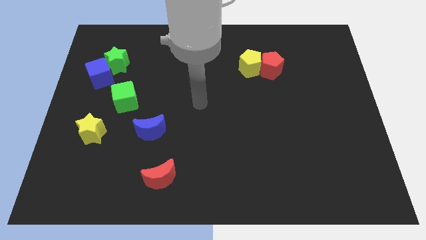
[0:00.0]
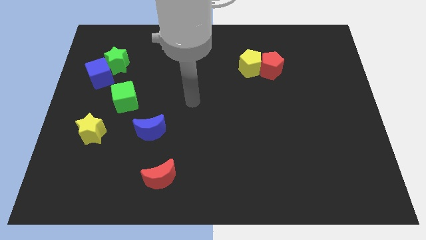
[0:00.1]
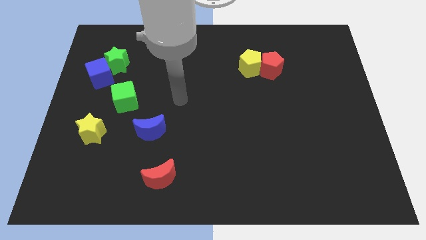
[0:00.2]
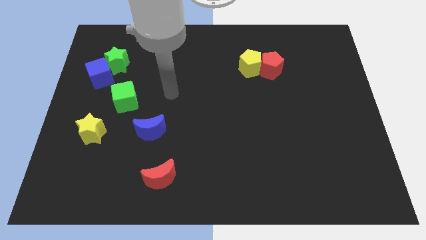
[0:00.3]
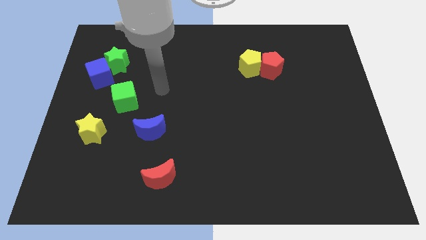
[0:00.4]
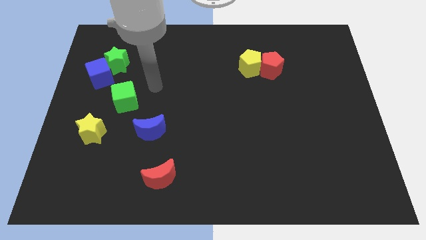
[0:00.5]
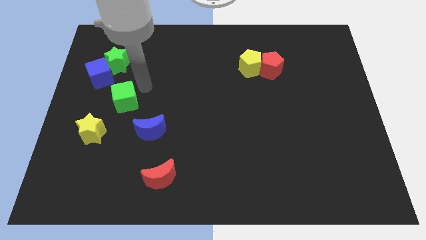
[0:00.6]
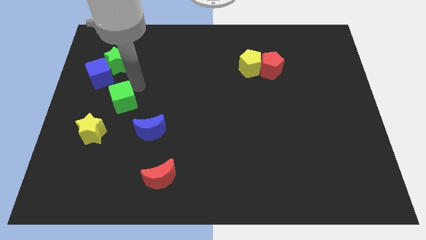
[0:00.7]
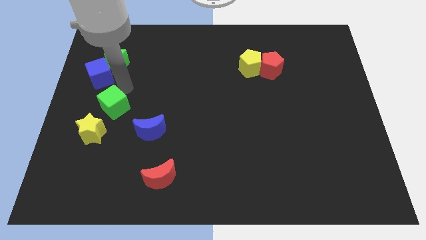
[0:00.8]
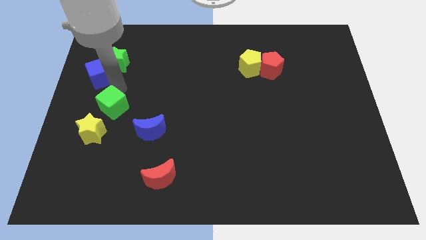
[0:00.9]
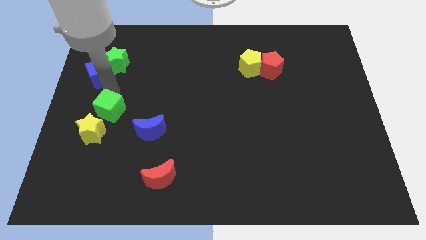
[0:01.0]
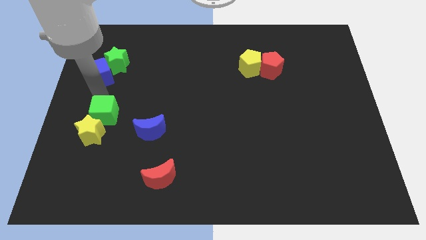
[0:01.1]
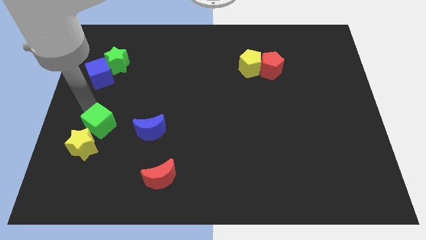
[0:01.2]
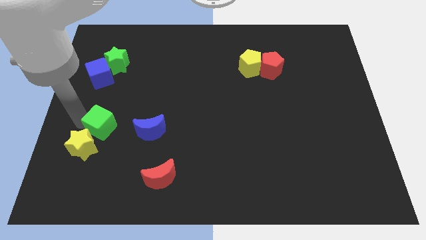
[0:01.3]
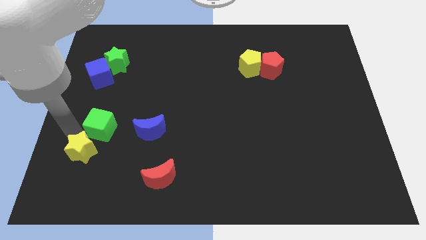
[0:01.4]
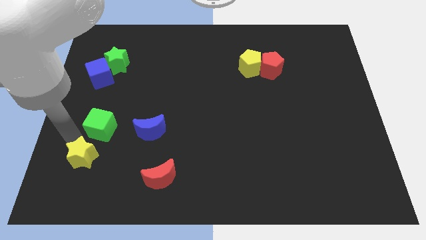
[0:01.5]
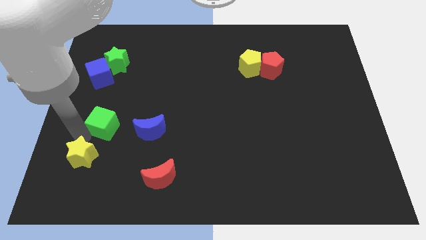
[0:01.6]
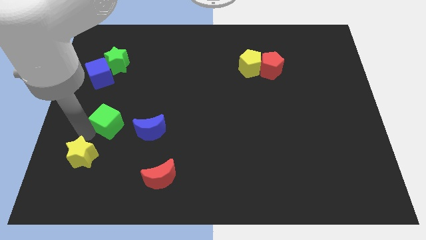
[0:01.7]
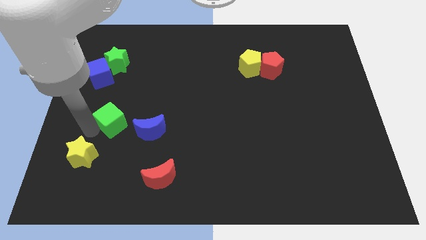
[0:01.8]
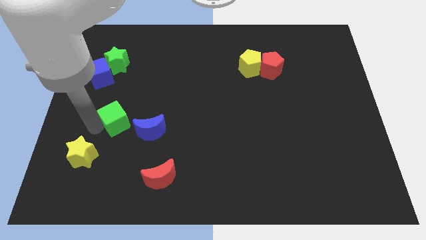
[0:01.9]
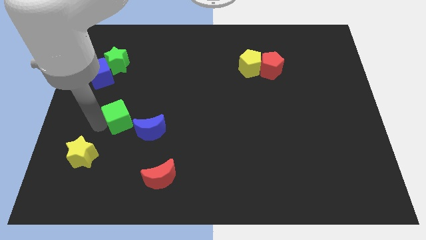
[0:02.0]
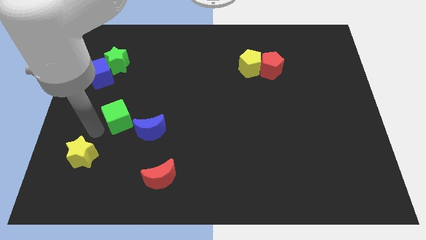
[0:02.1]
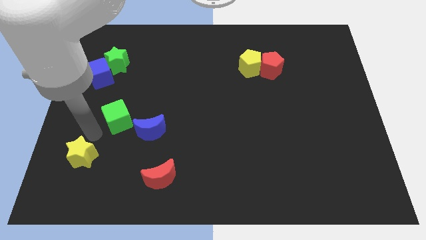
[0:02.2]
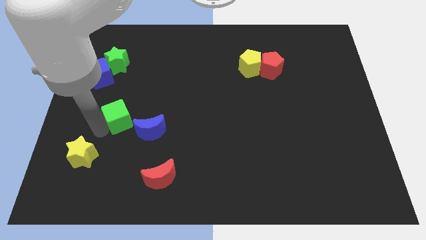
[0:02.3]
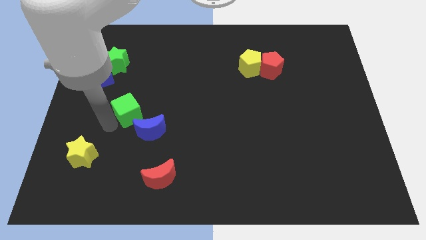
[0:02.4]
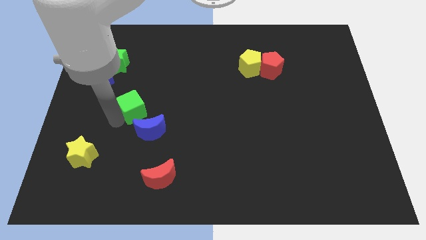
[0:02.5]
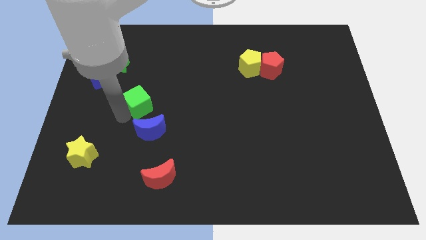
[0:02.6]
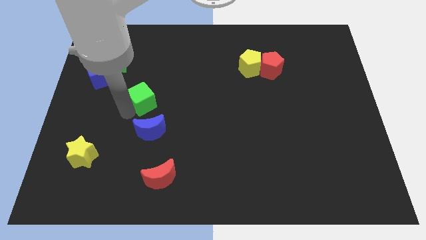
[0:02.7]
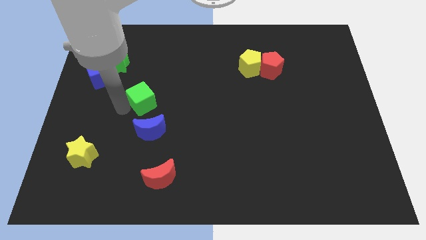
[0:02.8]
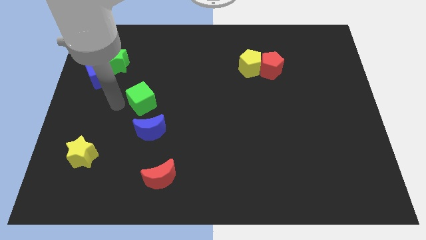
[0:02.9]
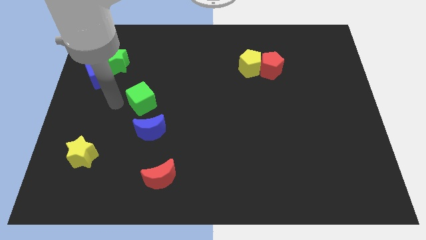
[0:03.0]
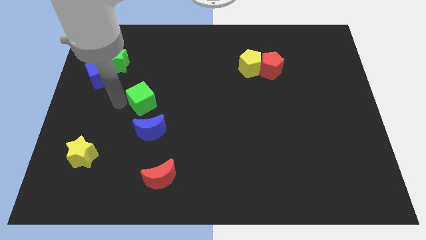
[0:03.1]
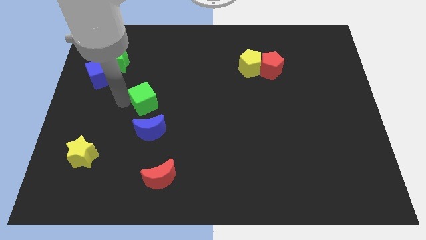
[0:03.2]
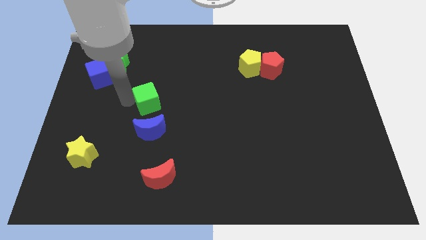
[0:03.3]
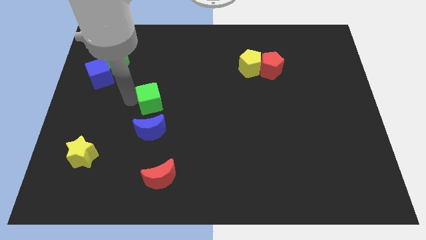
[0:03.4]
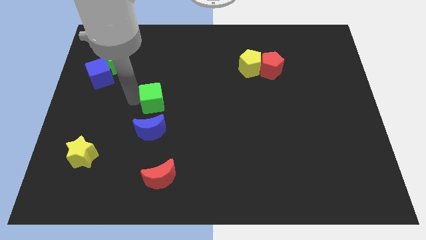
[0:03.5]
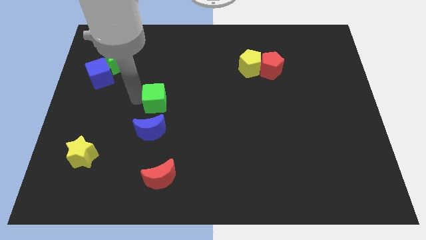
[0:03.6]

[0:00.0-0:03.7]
push the green cube somewhat right

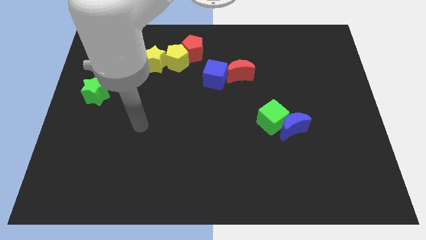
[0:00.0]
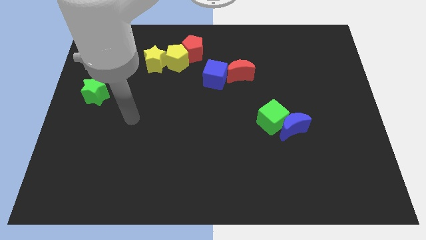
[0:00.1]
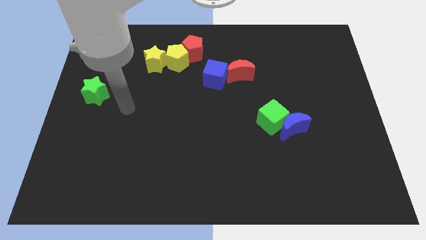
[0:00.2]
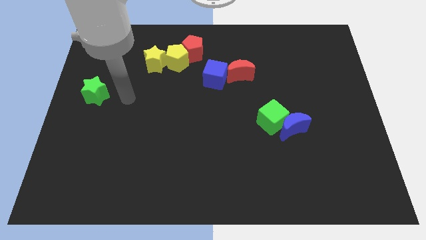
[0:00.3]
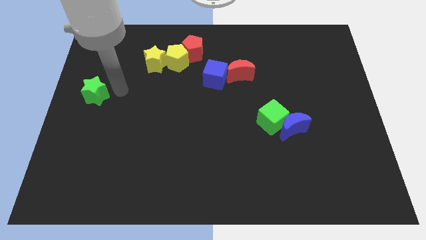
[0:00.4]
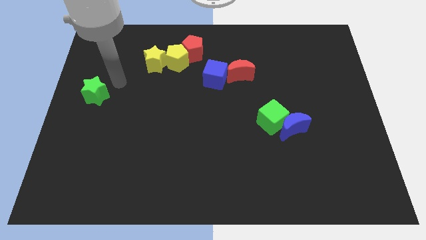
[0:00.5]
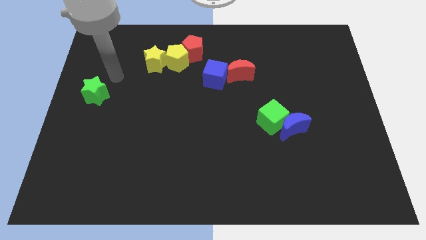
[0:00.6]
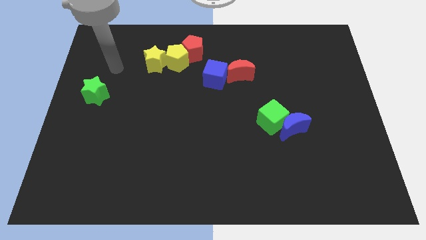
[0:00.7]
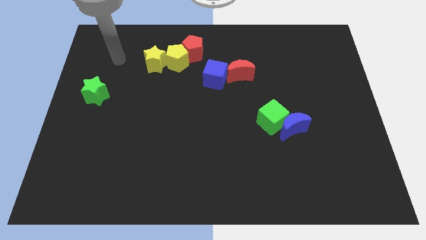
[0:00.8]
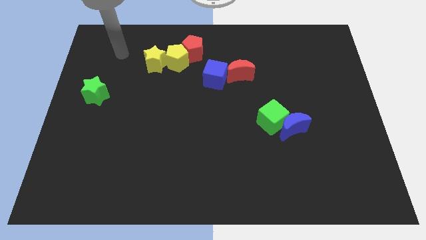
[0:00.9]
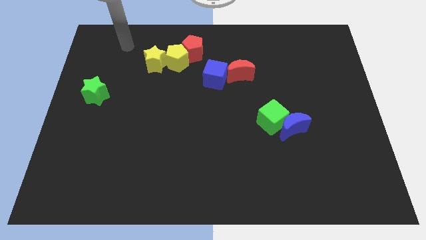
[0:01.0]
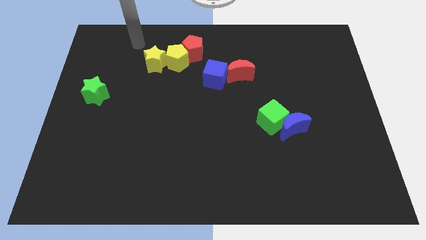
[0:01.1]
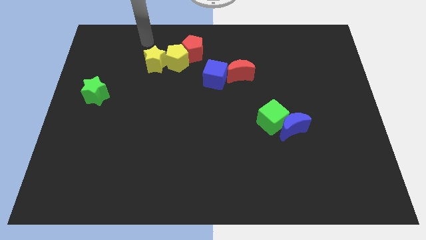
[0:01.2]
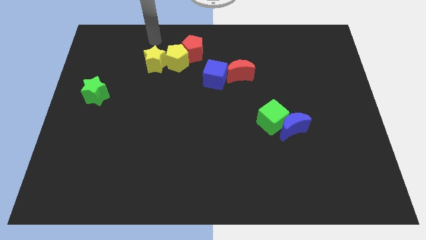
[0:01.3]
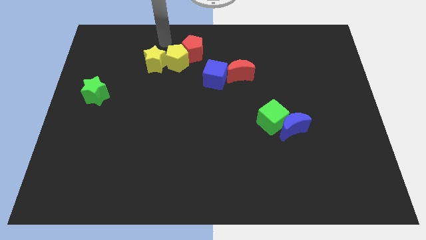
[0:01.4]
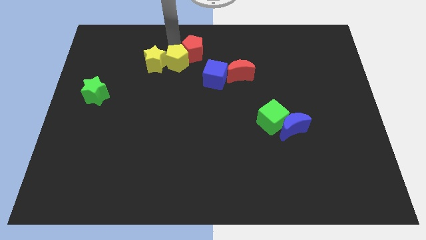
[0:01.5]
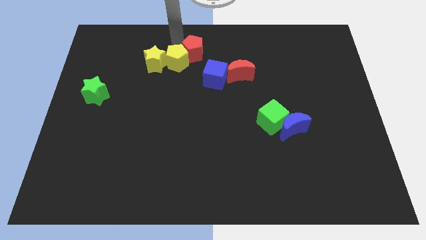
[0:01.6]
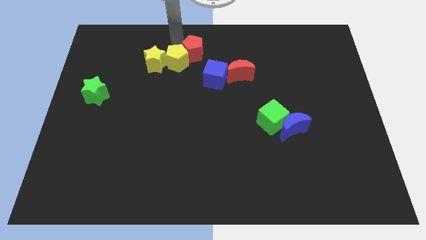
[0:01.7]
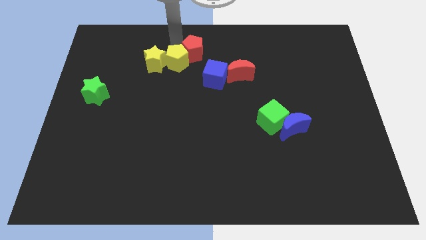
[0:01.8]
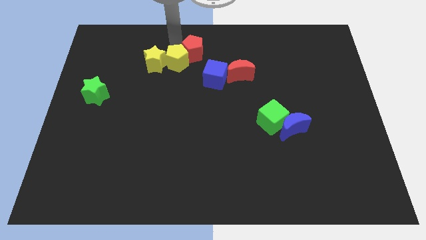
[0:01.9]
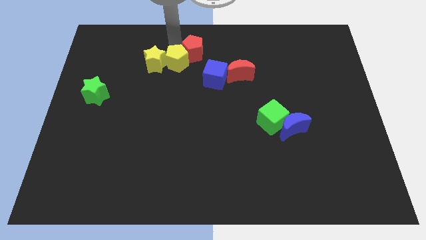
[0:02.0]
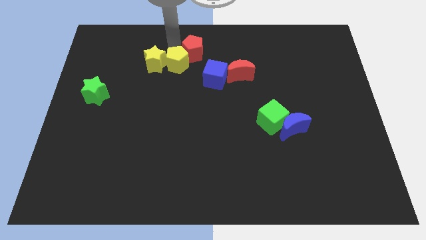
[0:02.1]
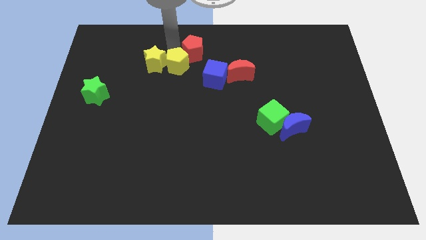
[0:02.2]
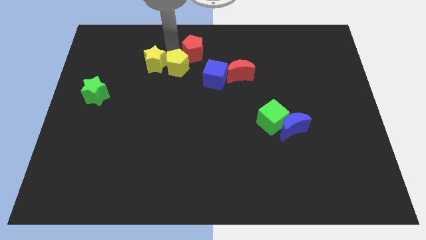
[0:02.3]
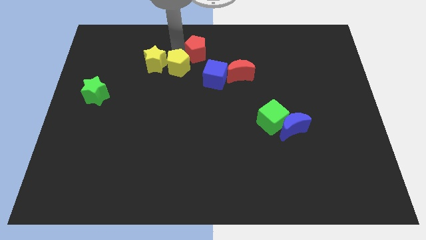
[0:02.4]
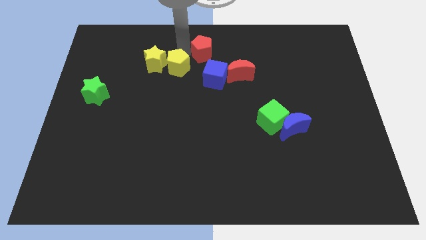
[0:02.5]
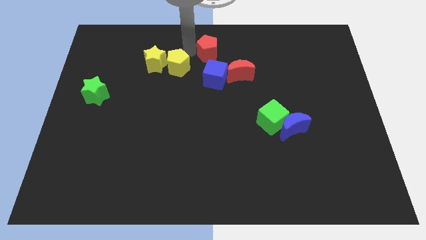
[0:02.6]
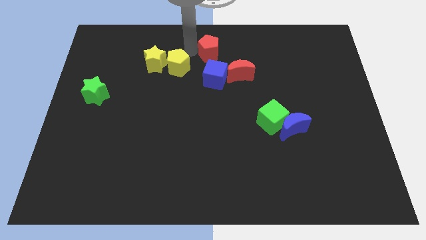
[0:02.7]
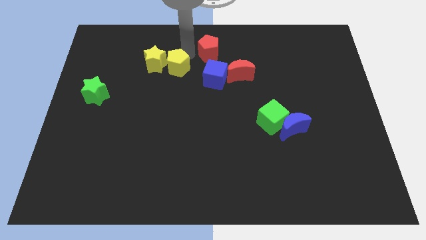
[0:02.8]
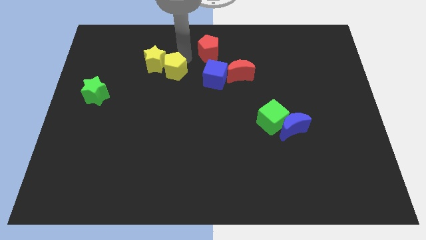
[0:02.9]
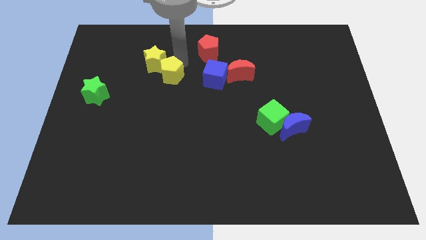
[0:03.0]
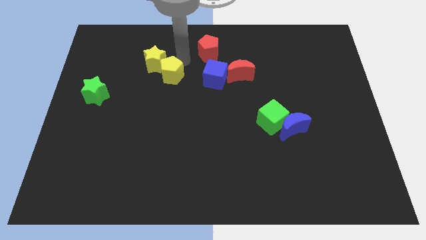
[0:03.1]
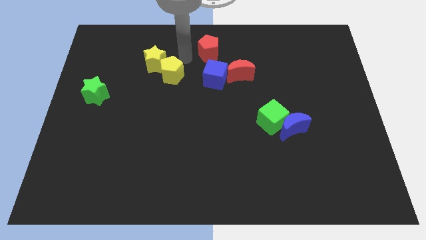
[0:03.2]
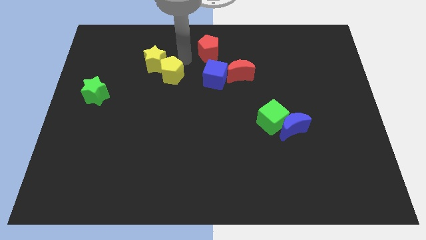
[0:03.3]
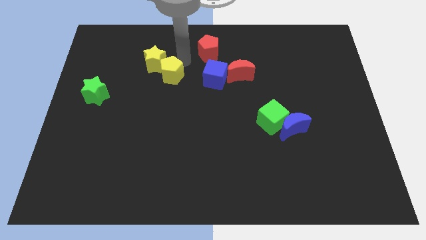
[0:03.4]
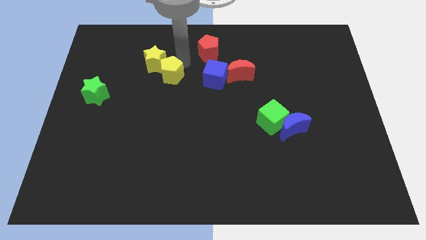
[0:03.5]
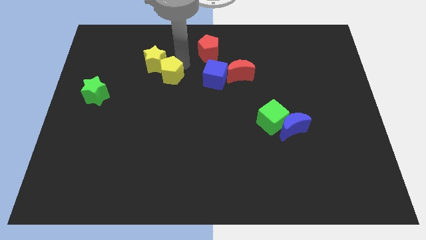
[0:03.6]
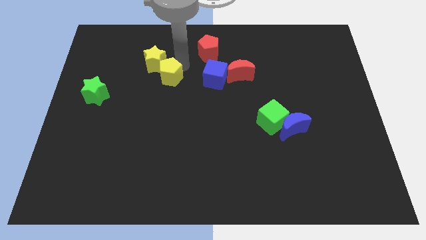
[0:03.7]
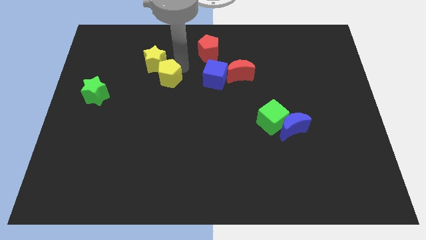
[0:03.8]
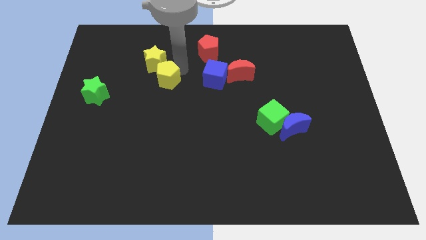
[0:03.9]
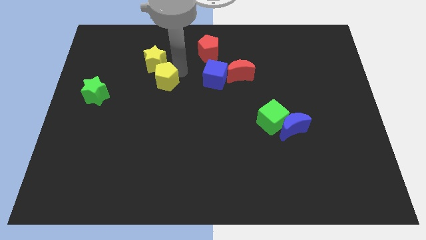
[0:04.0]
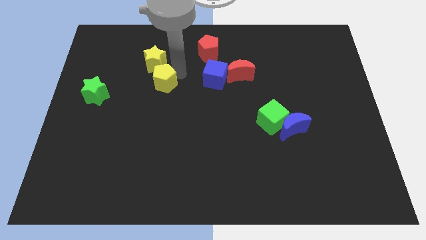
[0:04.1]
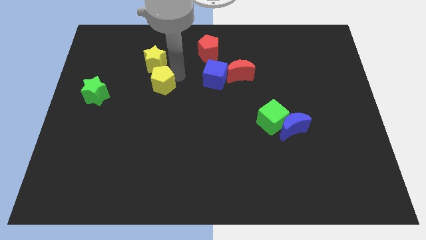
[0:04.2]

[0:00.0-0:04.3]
slightly move the yellow pentagon down and to the left

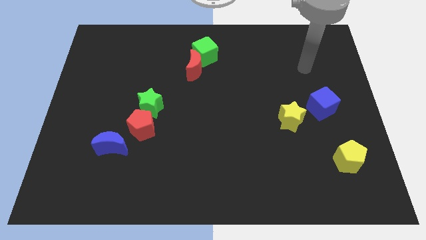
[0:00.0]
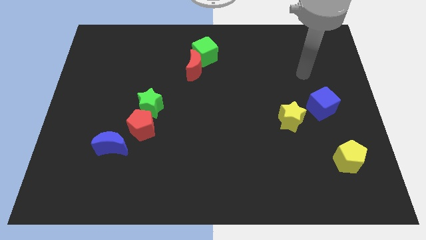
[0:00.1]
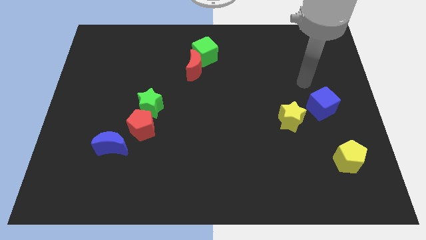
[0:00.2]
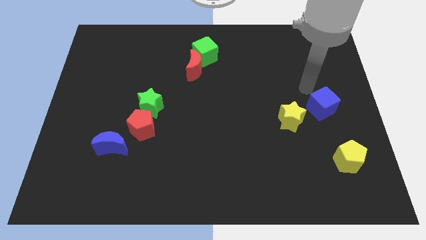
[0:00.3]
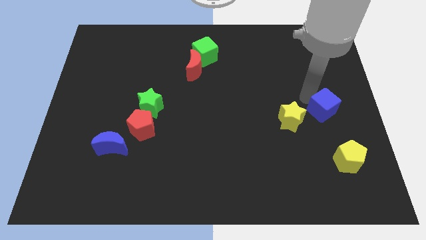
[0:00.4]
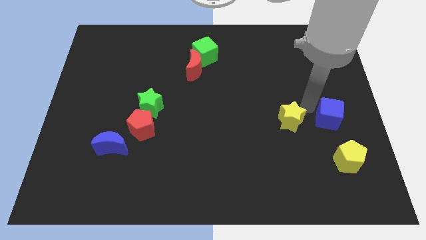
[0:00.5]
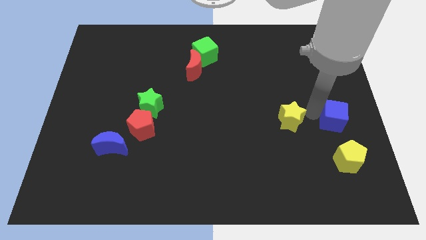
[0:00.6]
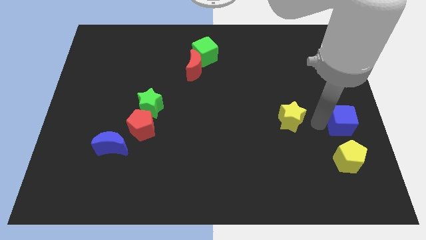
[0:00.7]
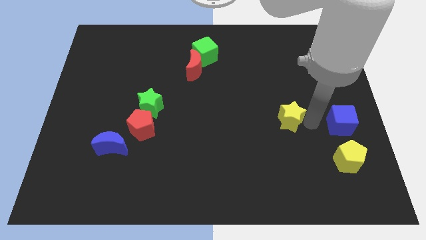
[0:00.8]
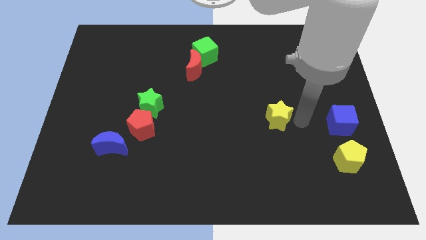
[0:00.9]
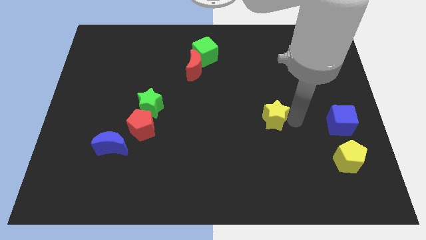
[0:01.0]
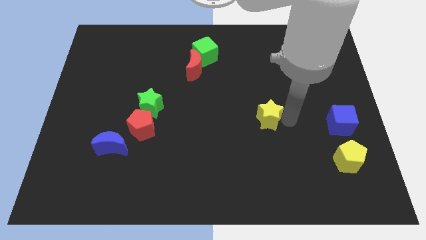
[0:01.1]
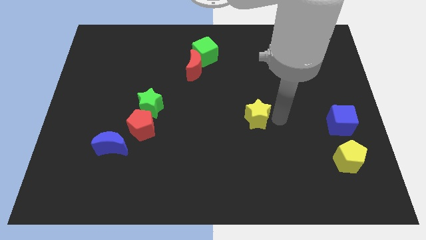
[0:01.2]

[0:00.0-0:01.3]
slide the yellow star left a little
